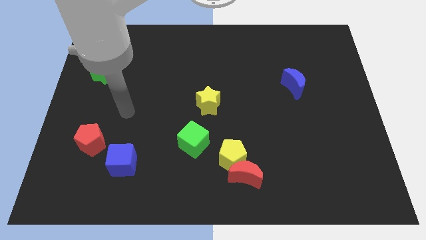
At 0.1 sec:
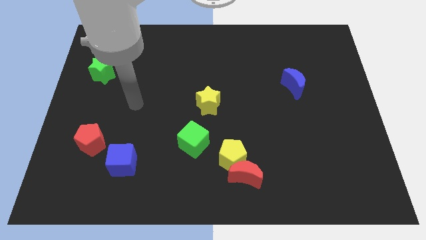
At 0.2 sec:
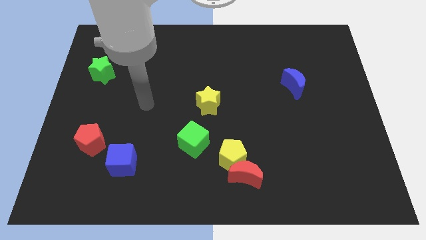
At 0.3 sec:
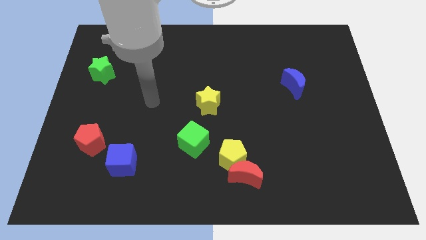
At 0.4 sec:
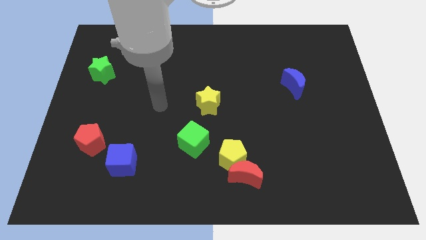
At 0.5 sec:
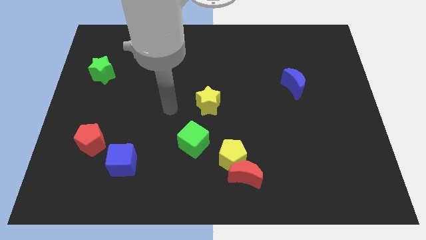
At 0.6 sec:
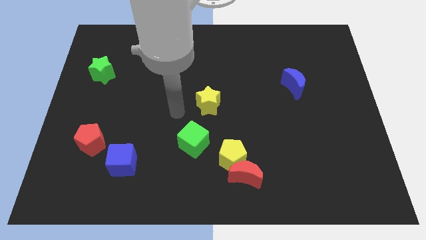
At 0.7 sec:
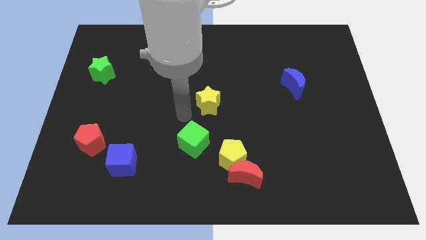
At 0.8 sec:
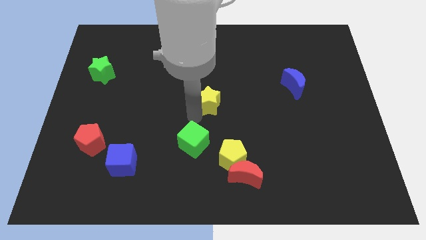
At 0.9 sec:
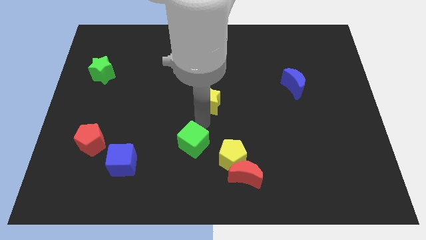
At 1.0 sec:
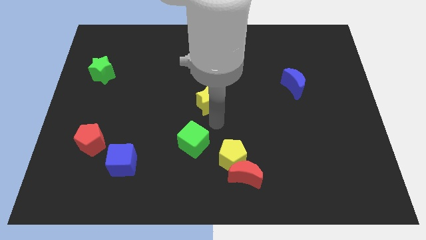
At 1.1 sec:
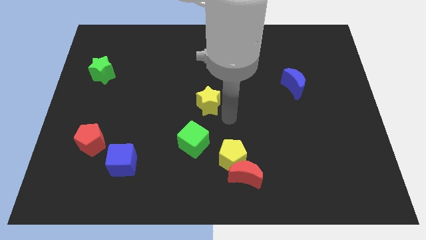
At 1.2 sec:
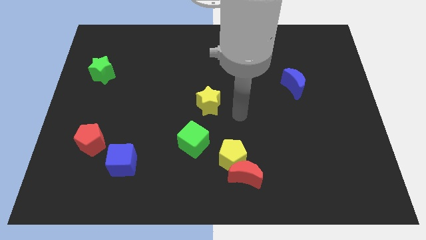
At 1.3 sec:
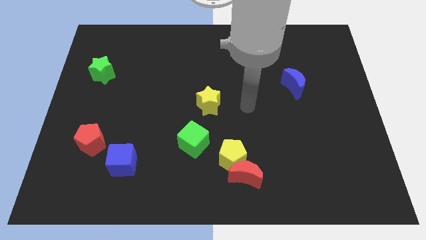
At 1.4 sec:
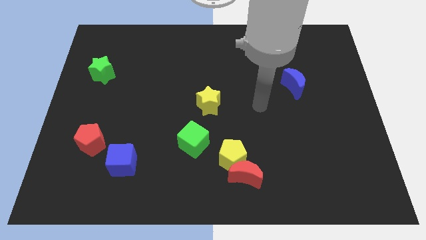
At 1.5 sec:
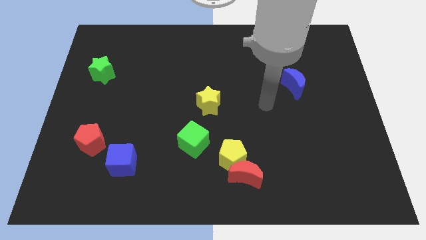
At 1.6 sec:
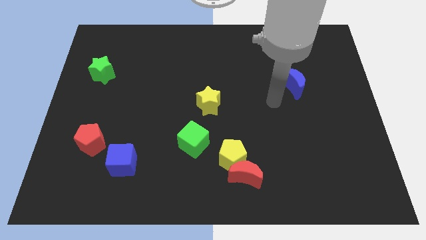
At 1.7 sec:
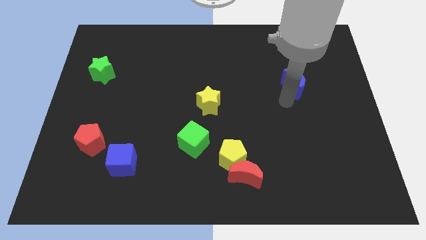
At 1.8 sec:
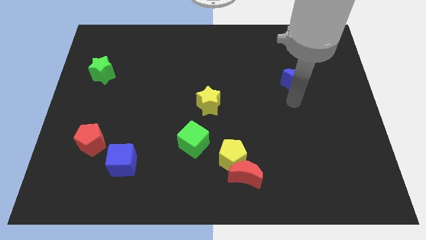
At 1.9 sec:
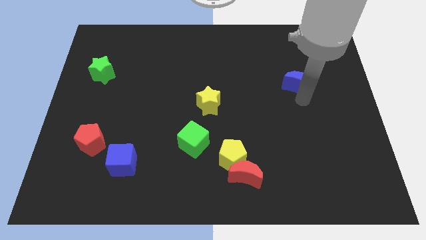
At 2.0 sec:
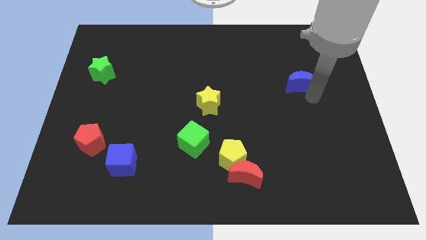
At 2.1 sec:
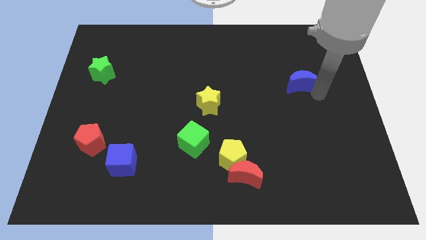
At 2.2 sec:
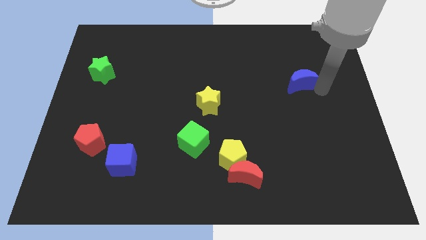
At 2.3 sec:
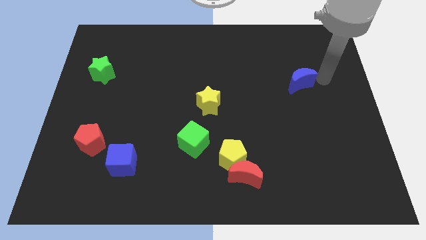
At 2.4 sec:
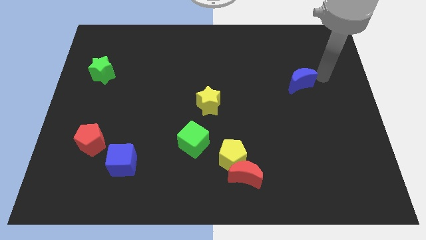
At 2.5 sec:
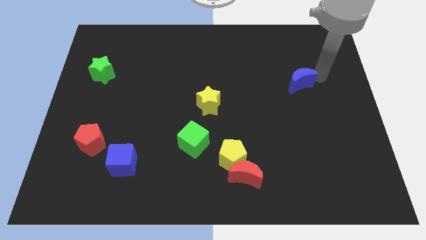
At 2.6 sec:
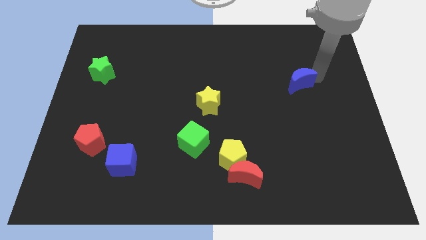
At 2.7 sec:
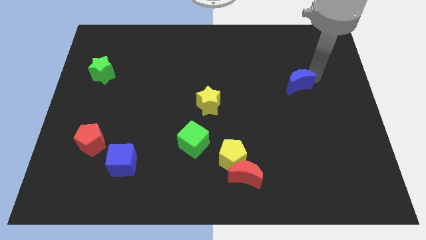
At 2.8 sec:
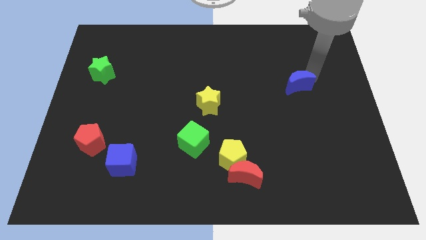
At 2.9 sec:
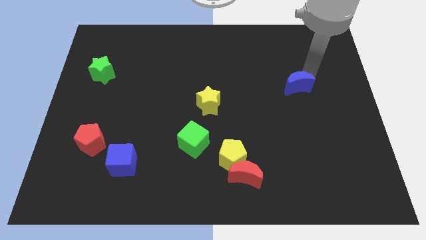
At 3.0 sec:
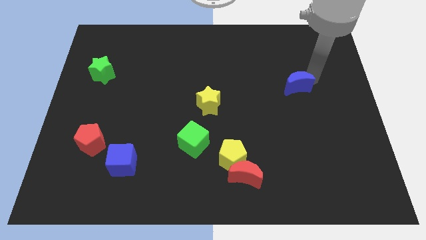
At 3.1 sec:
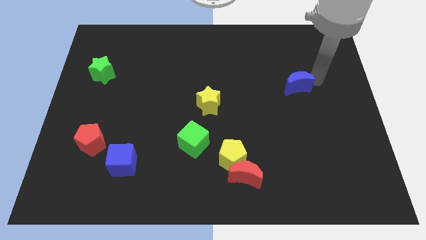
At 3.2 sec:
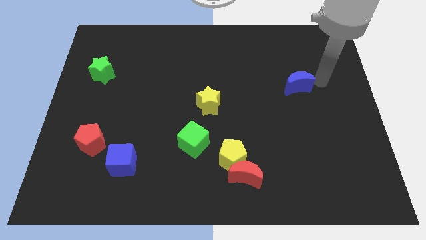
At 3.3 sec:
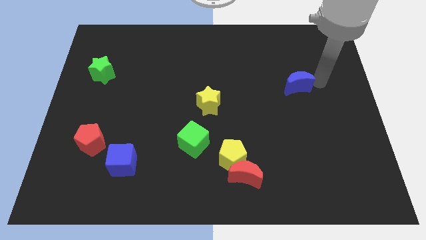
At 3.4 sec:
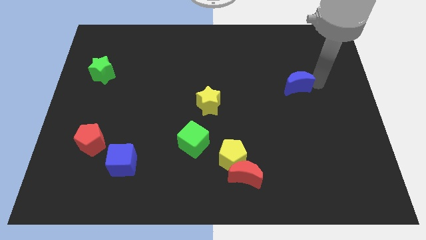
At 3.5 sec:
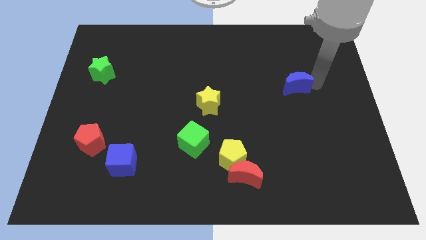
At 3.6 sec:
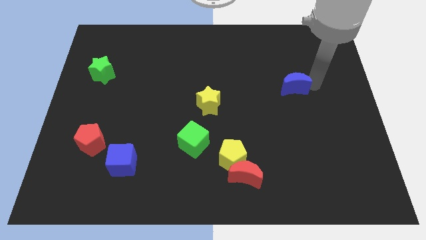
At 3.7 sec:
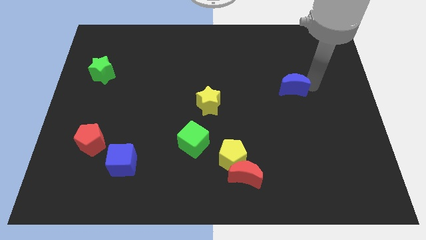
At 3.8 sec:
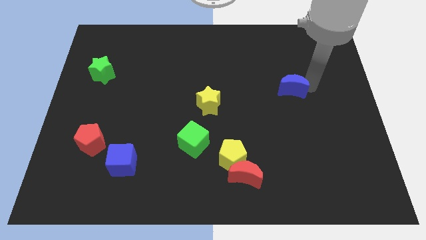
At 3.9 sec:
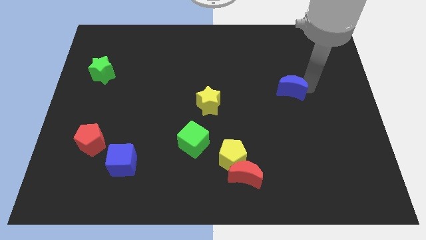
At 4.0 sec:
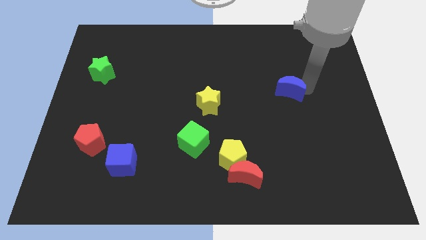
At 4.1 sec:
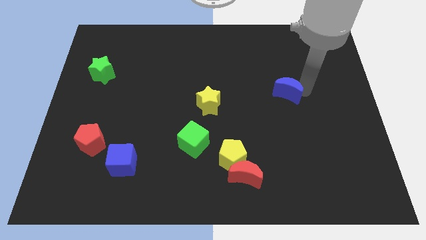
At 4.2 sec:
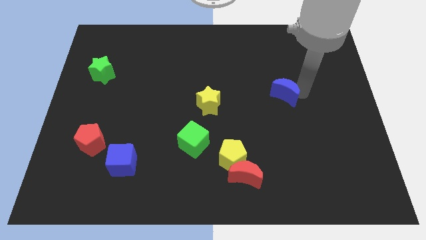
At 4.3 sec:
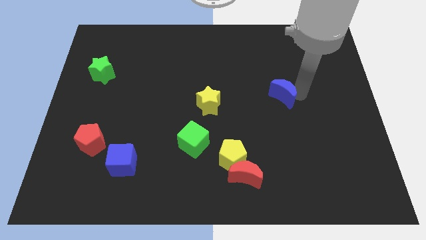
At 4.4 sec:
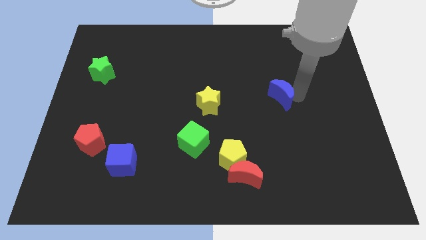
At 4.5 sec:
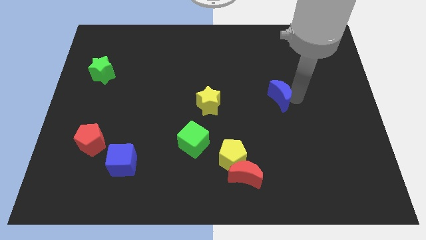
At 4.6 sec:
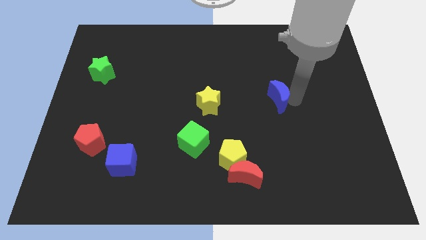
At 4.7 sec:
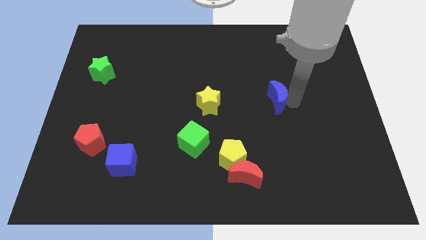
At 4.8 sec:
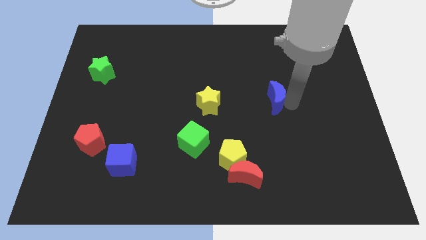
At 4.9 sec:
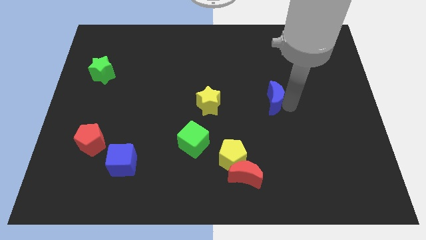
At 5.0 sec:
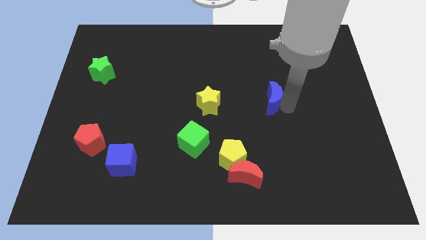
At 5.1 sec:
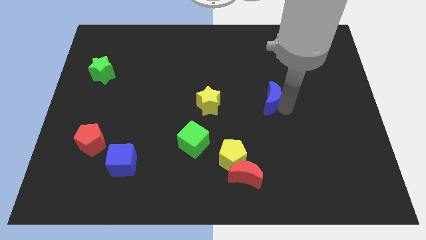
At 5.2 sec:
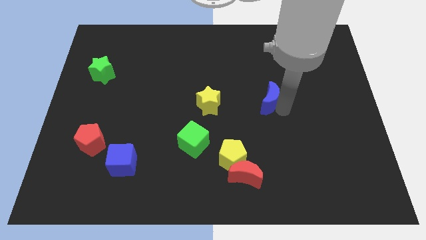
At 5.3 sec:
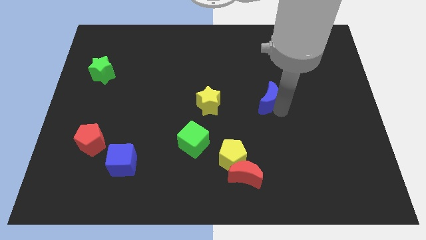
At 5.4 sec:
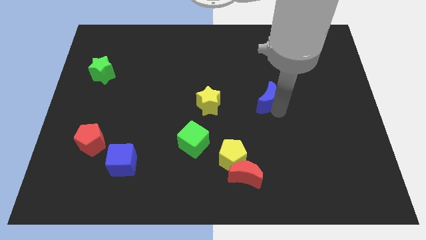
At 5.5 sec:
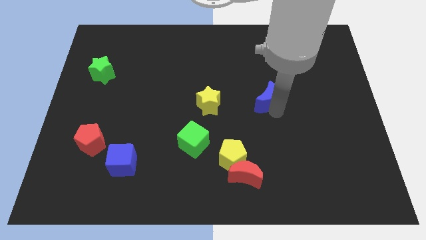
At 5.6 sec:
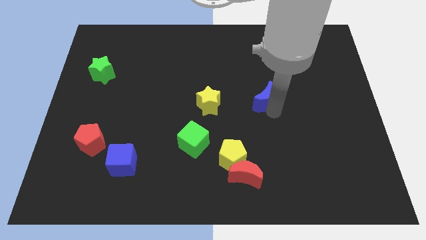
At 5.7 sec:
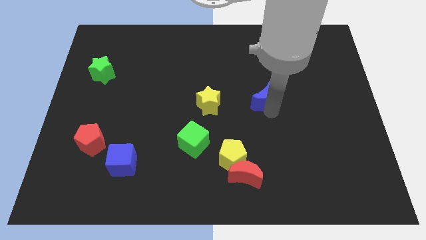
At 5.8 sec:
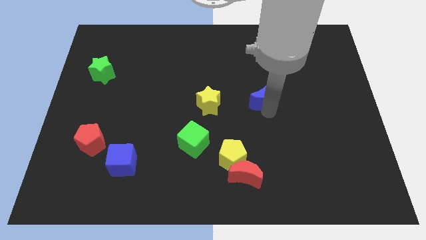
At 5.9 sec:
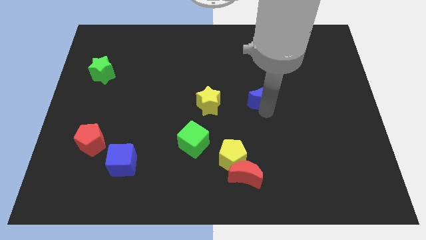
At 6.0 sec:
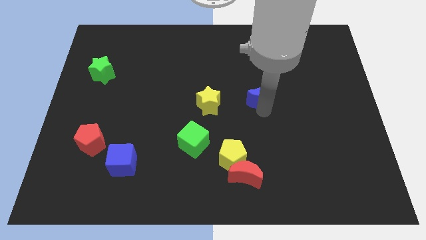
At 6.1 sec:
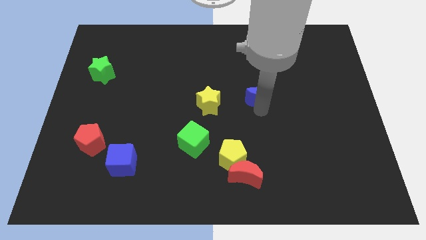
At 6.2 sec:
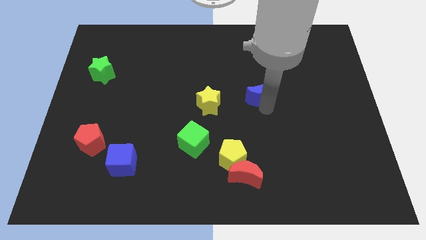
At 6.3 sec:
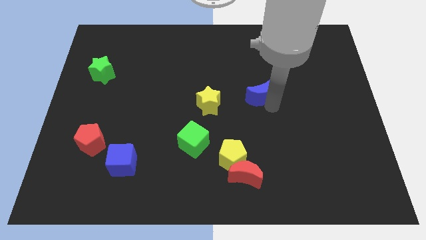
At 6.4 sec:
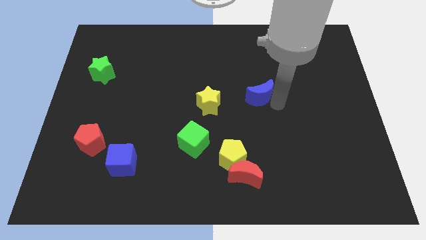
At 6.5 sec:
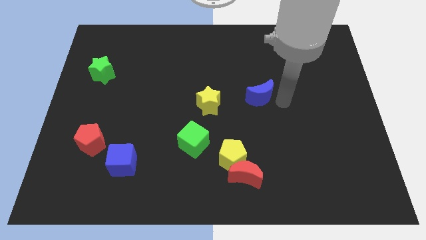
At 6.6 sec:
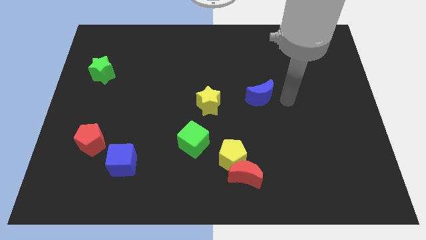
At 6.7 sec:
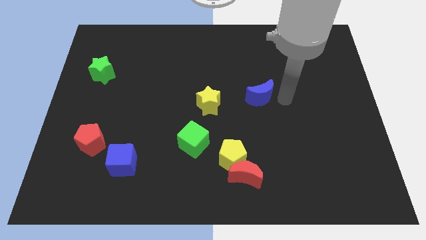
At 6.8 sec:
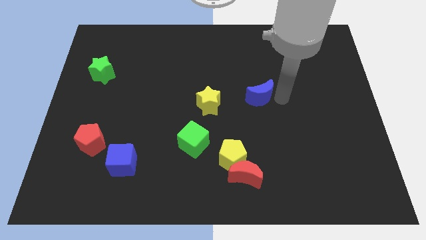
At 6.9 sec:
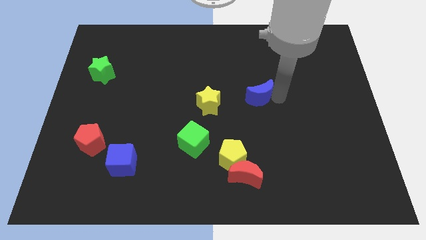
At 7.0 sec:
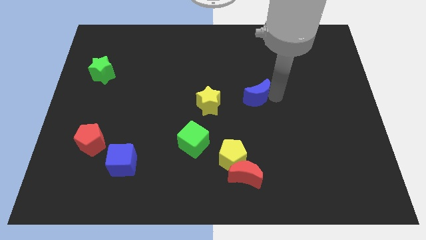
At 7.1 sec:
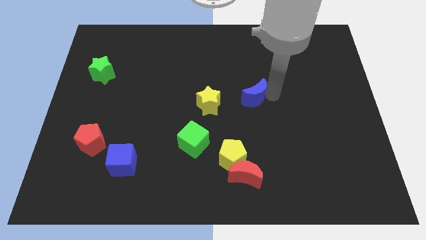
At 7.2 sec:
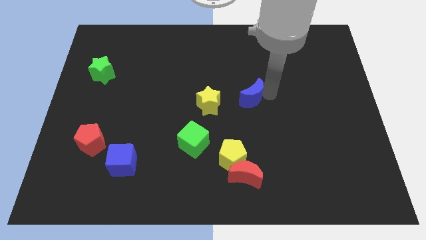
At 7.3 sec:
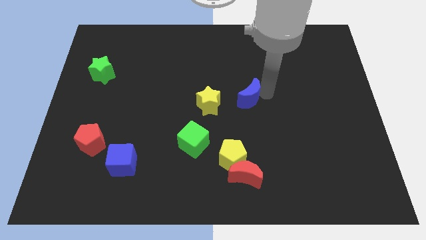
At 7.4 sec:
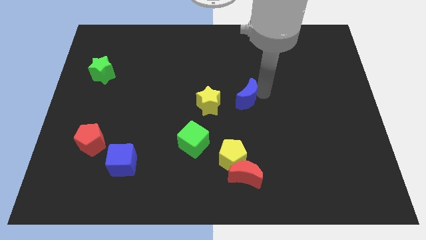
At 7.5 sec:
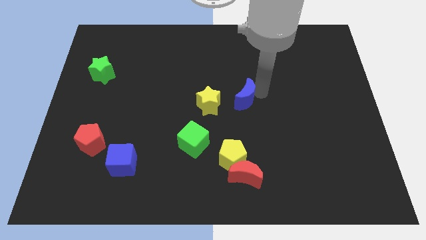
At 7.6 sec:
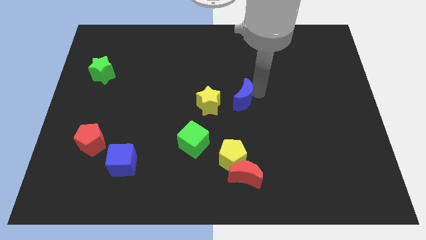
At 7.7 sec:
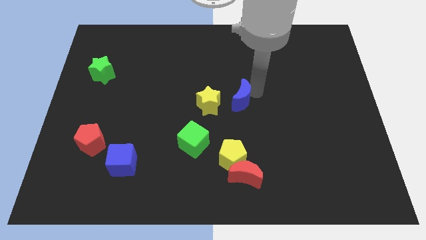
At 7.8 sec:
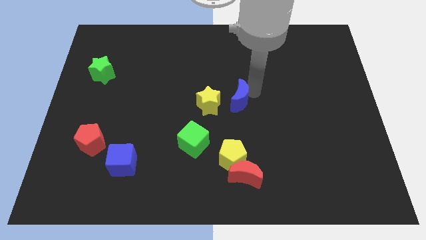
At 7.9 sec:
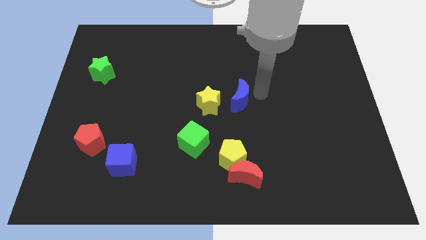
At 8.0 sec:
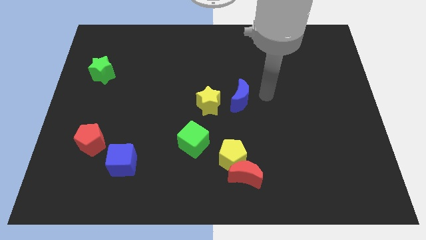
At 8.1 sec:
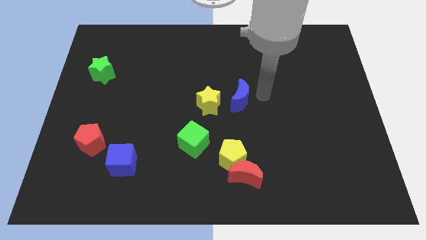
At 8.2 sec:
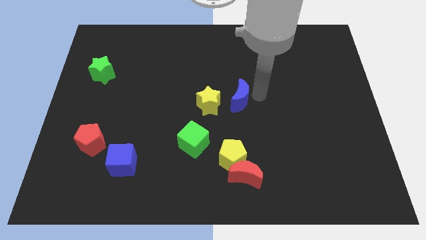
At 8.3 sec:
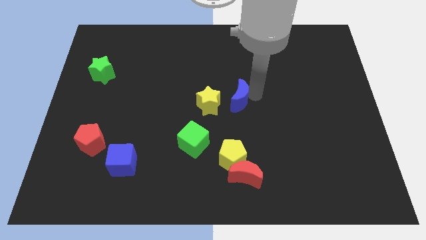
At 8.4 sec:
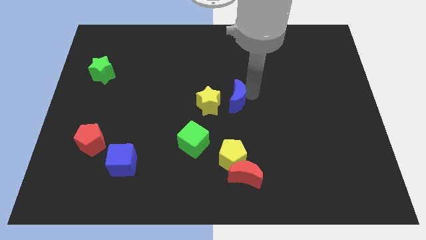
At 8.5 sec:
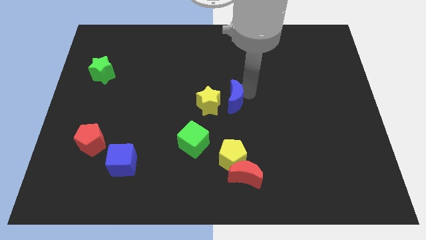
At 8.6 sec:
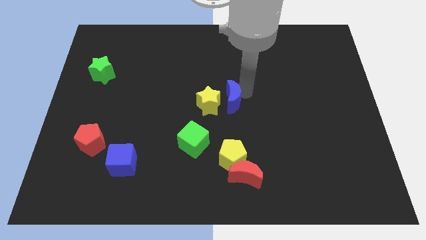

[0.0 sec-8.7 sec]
push the blue moon close to the yellow star
